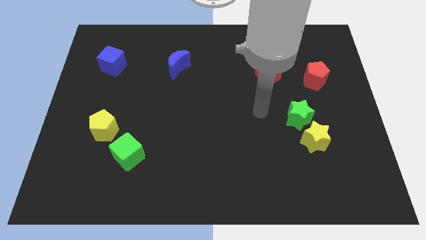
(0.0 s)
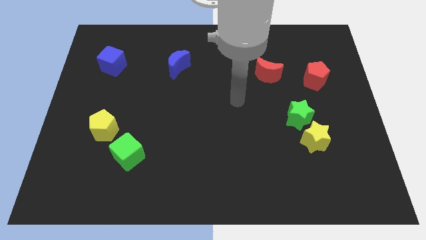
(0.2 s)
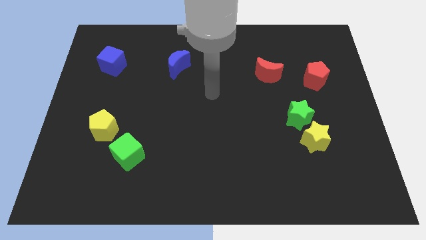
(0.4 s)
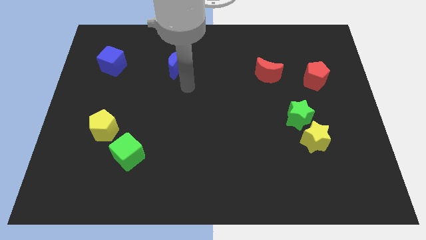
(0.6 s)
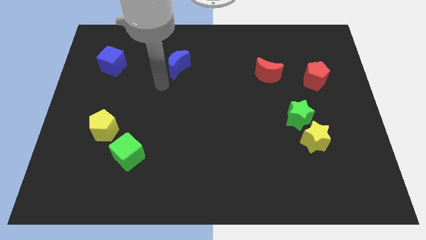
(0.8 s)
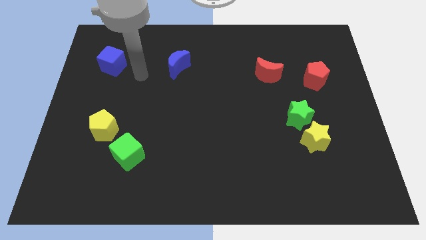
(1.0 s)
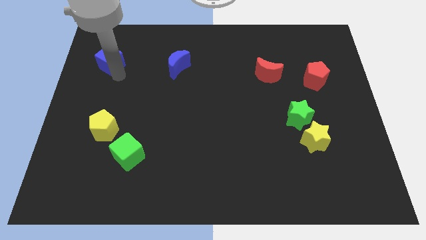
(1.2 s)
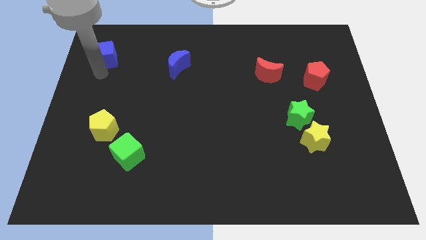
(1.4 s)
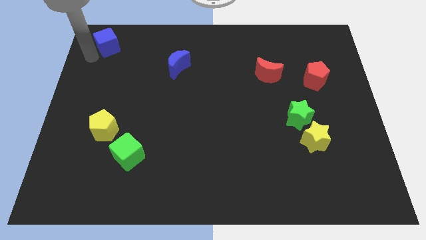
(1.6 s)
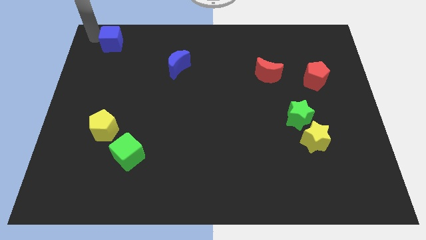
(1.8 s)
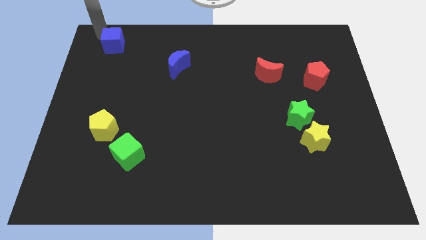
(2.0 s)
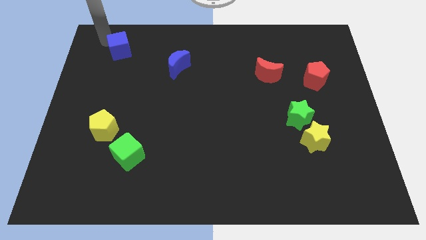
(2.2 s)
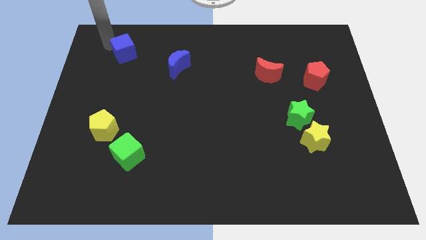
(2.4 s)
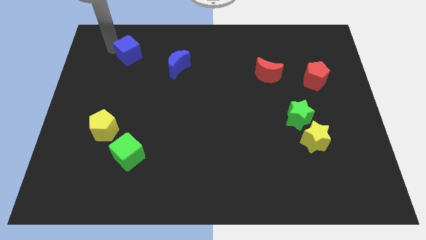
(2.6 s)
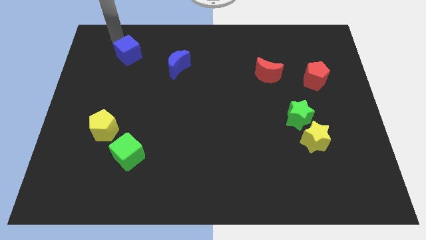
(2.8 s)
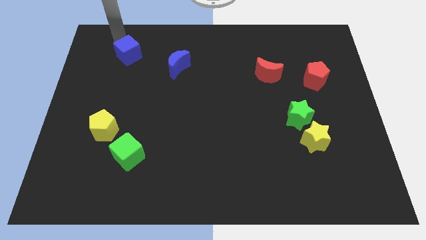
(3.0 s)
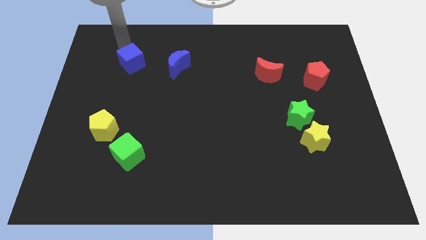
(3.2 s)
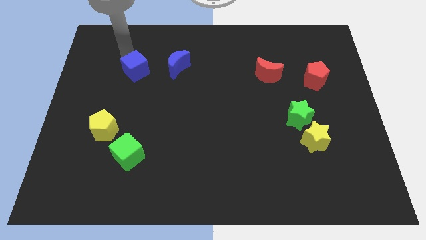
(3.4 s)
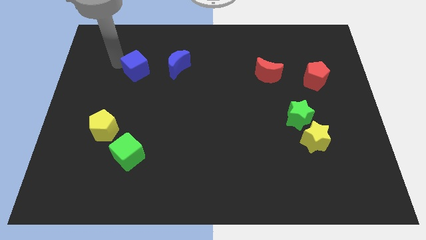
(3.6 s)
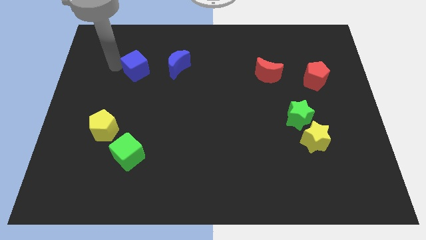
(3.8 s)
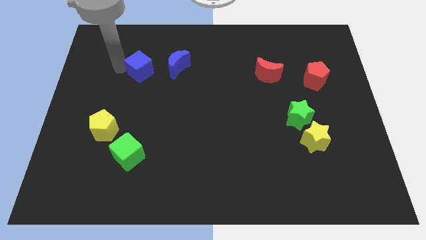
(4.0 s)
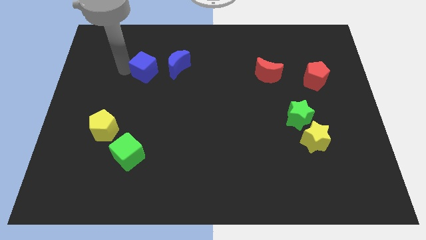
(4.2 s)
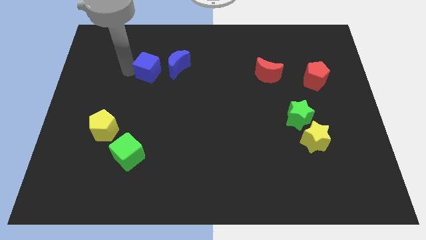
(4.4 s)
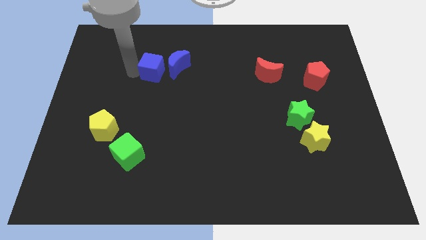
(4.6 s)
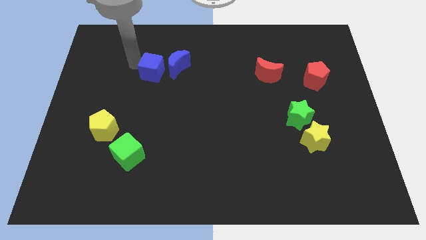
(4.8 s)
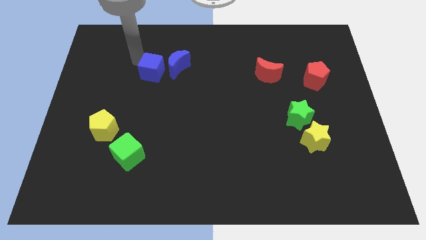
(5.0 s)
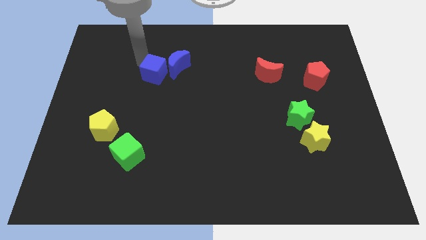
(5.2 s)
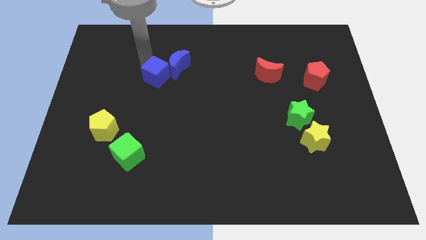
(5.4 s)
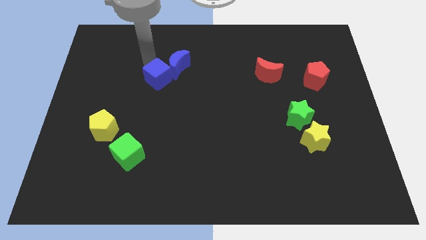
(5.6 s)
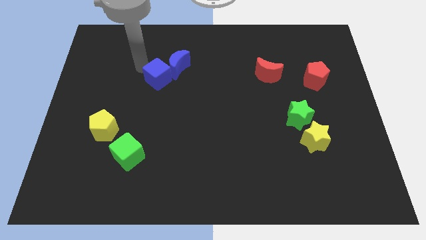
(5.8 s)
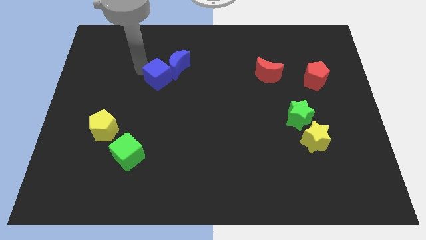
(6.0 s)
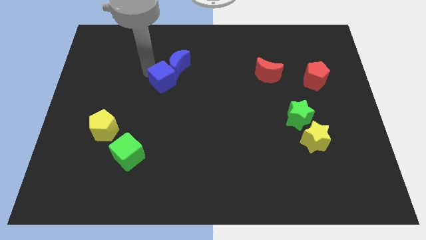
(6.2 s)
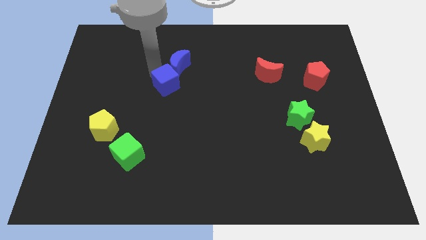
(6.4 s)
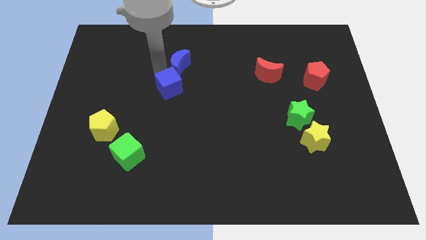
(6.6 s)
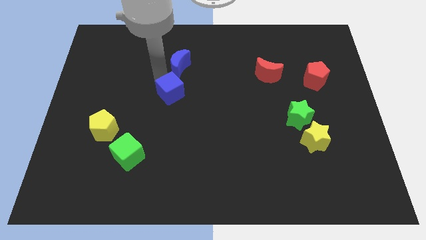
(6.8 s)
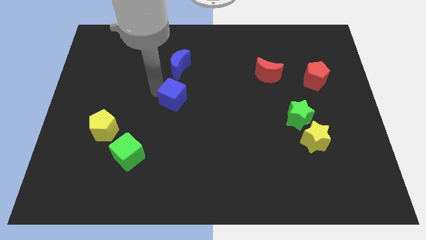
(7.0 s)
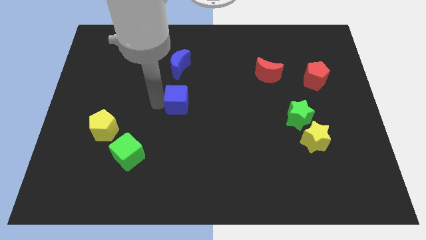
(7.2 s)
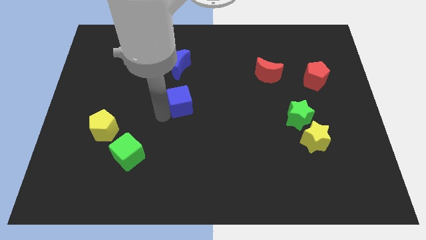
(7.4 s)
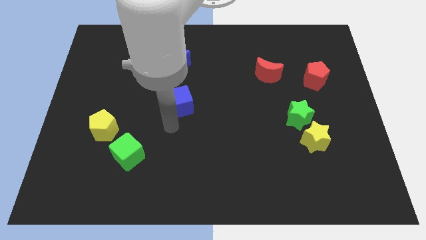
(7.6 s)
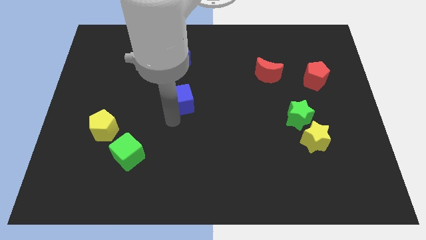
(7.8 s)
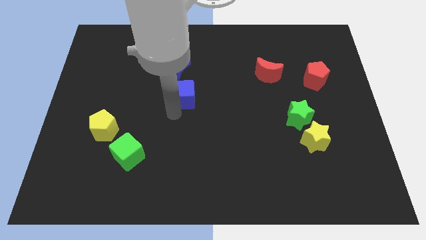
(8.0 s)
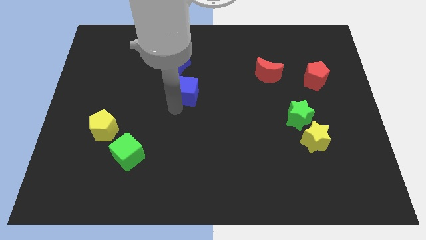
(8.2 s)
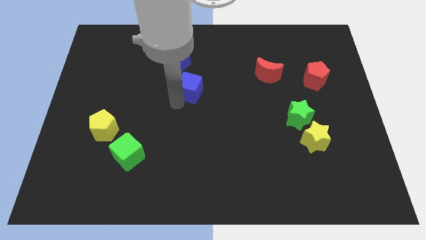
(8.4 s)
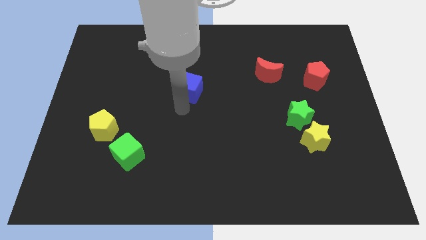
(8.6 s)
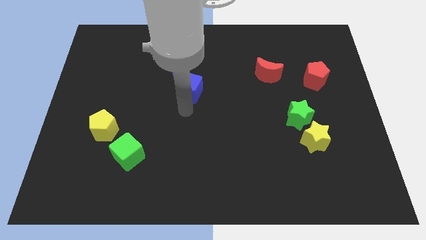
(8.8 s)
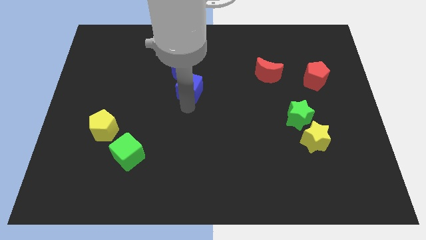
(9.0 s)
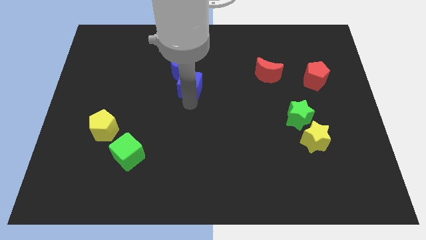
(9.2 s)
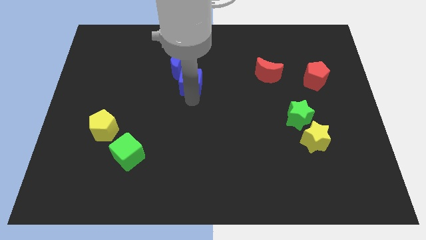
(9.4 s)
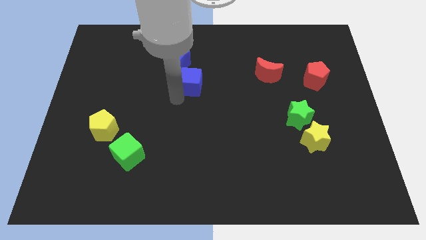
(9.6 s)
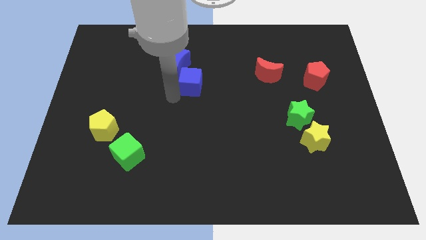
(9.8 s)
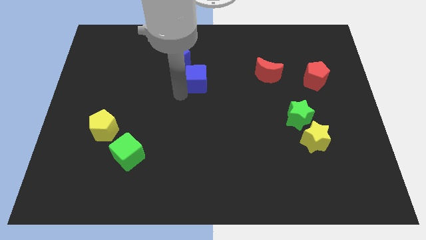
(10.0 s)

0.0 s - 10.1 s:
push the blue cube to the right

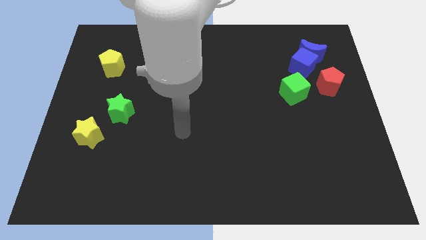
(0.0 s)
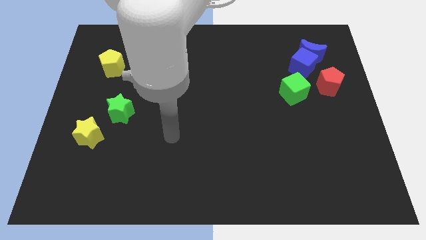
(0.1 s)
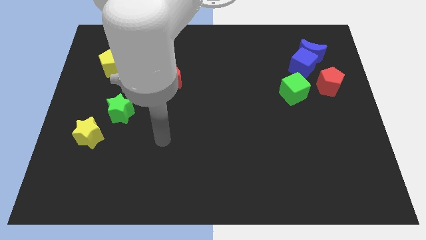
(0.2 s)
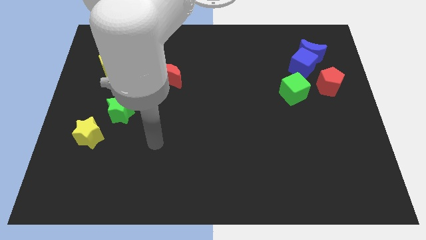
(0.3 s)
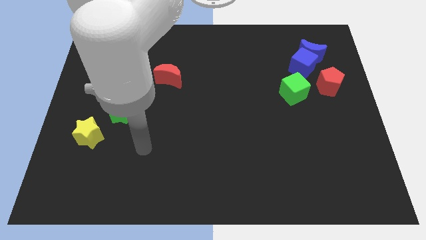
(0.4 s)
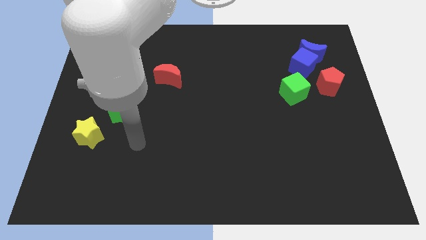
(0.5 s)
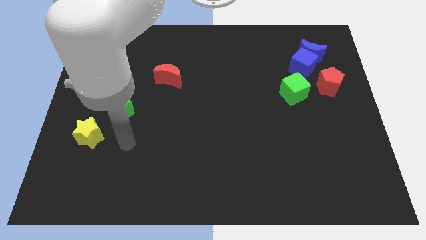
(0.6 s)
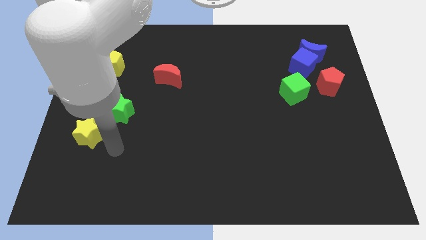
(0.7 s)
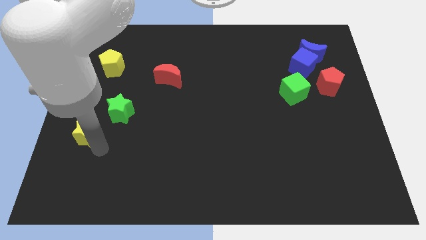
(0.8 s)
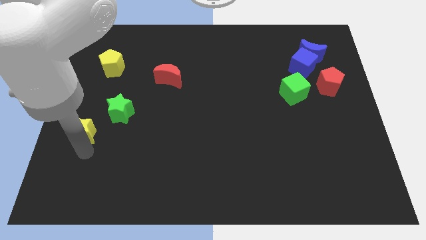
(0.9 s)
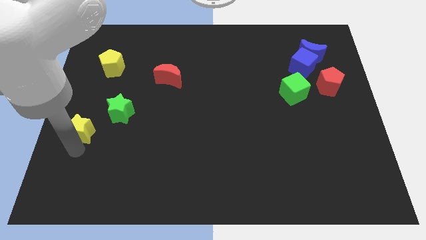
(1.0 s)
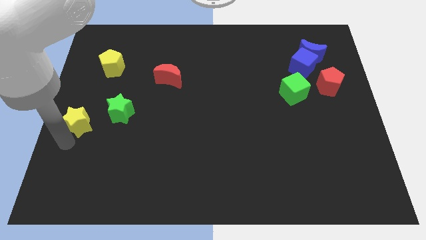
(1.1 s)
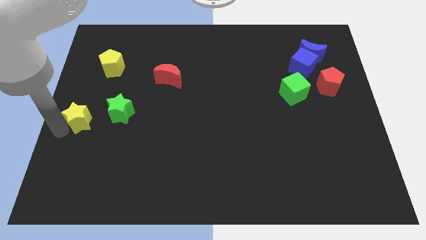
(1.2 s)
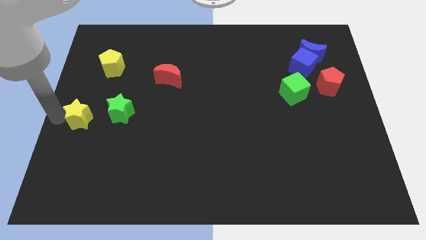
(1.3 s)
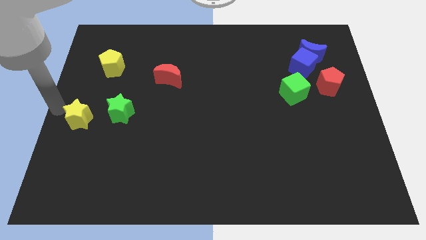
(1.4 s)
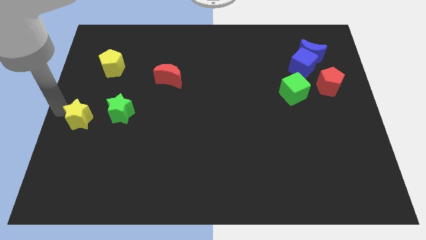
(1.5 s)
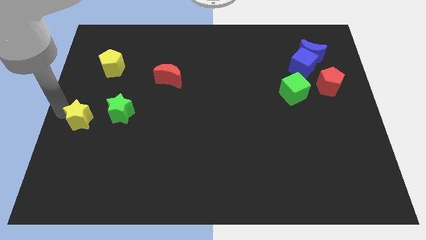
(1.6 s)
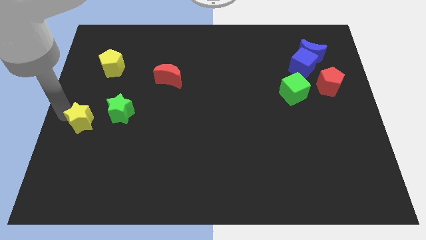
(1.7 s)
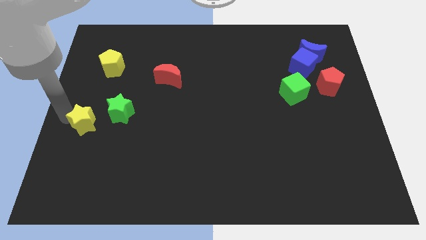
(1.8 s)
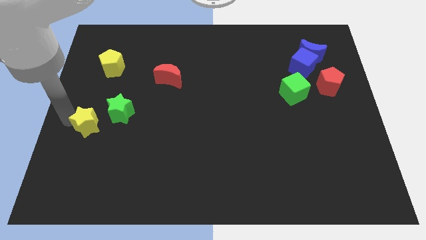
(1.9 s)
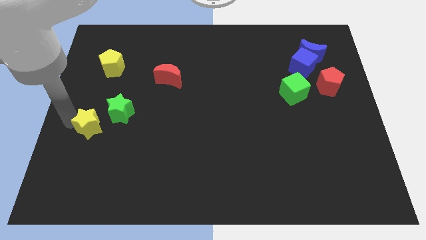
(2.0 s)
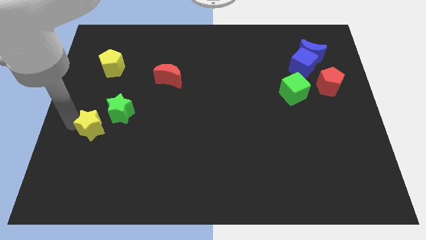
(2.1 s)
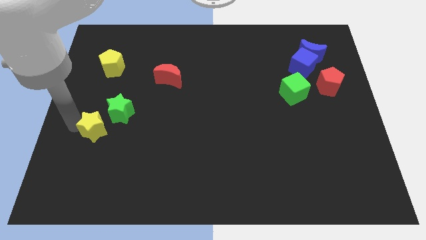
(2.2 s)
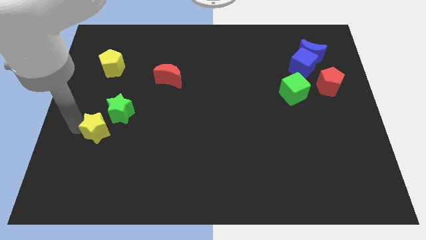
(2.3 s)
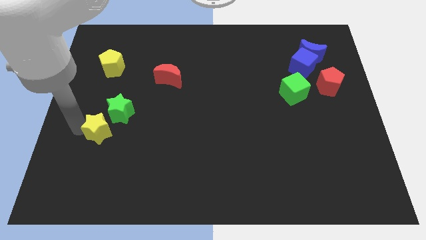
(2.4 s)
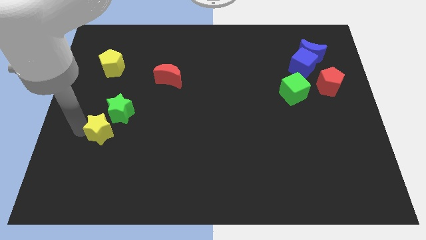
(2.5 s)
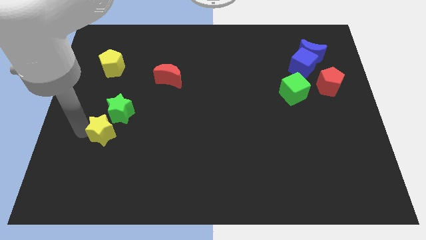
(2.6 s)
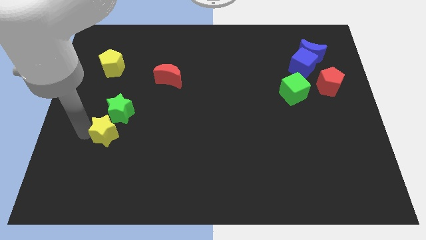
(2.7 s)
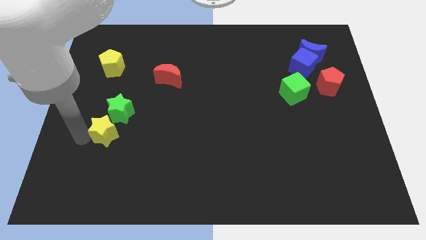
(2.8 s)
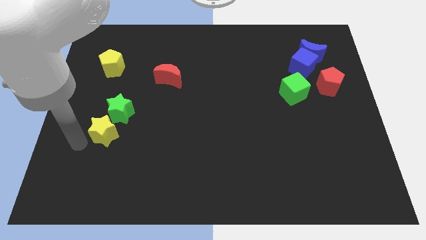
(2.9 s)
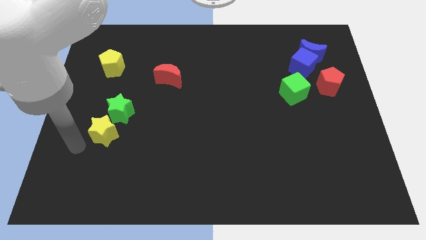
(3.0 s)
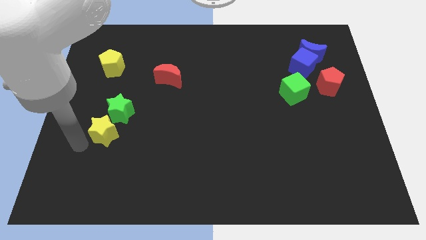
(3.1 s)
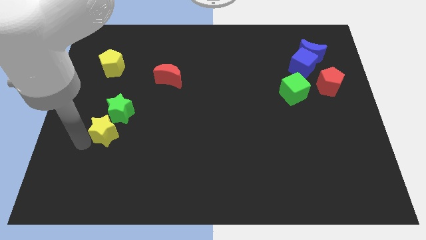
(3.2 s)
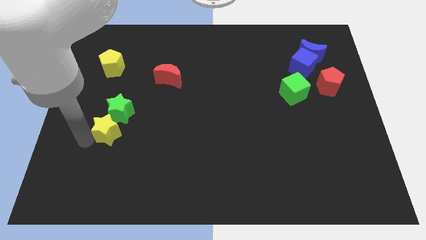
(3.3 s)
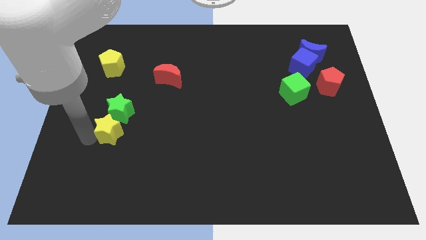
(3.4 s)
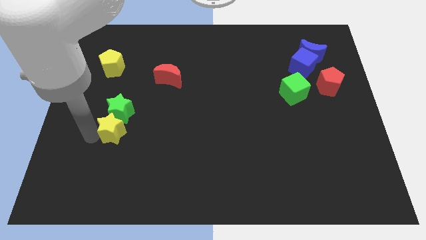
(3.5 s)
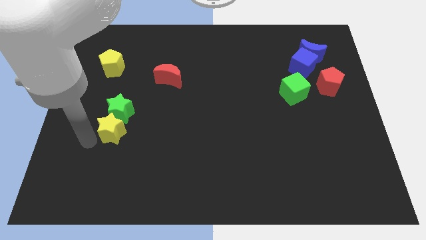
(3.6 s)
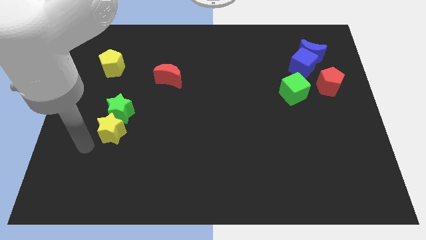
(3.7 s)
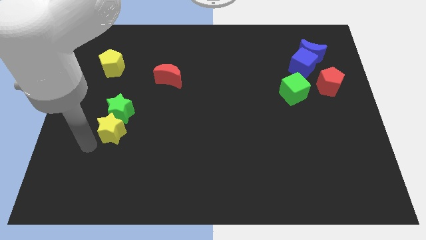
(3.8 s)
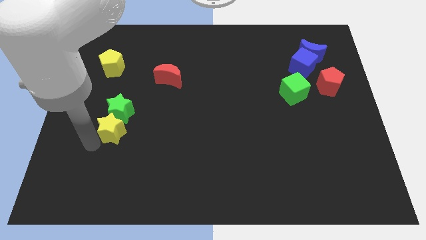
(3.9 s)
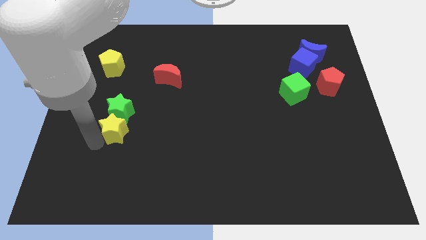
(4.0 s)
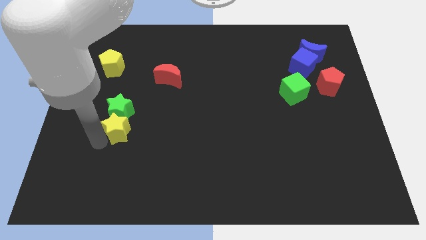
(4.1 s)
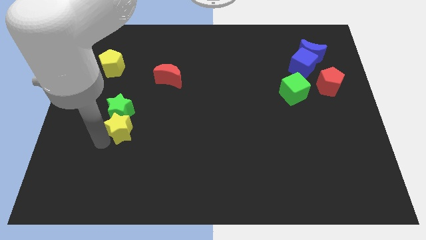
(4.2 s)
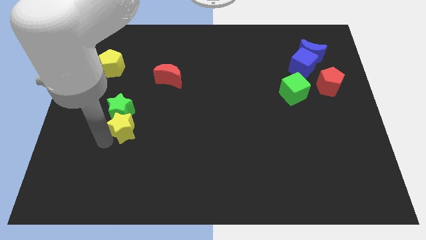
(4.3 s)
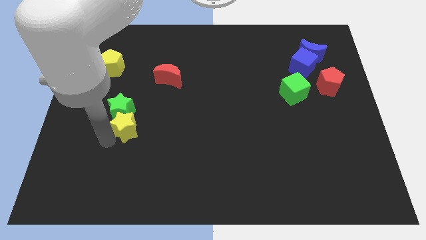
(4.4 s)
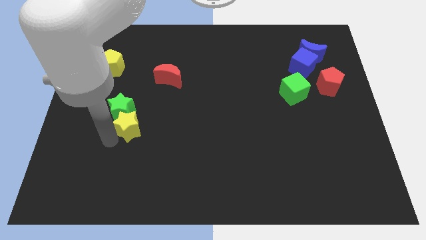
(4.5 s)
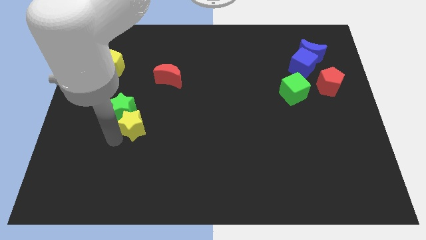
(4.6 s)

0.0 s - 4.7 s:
move the yellow star up and then to the right a little bit
